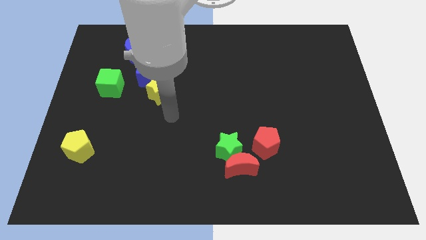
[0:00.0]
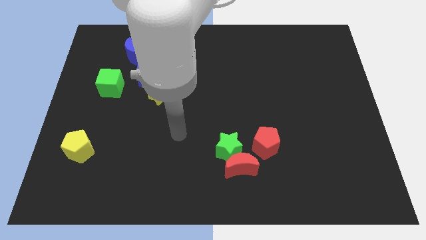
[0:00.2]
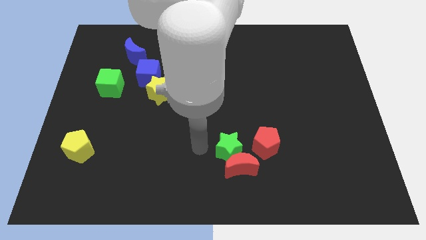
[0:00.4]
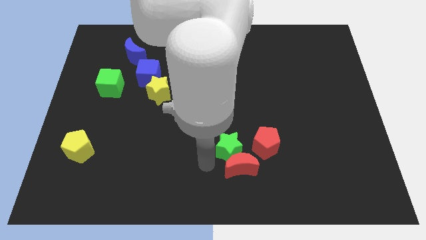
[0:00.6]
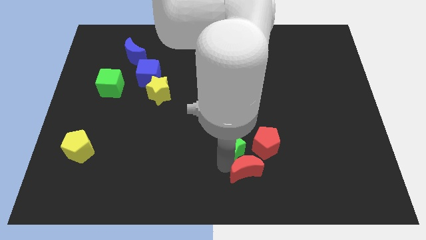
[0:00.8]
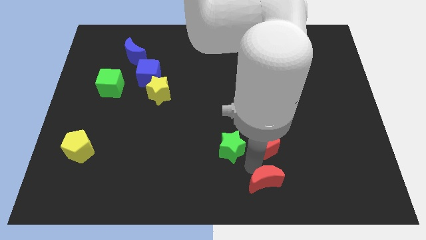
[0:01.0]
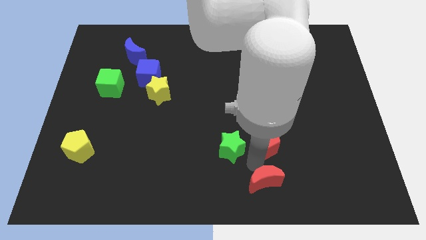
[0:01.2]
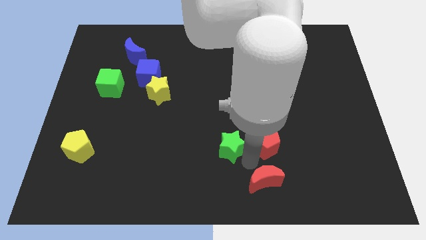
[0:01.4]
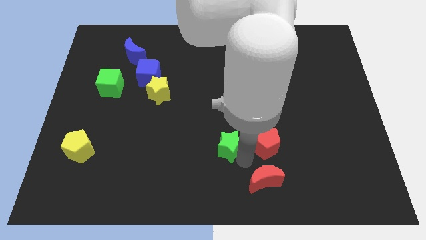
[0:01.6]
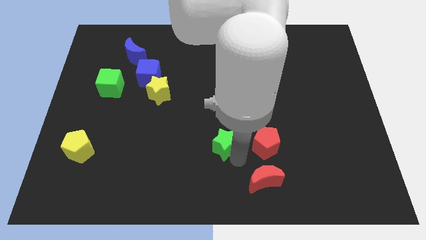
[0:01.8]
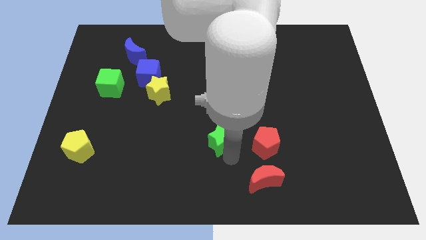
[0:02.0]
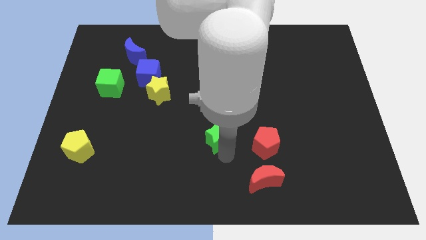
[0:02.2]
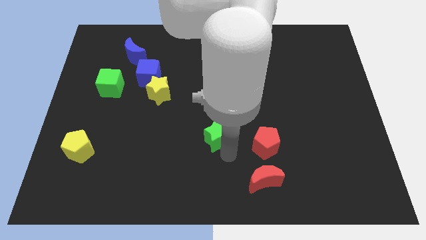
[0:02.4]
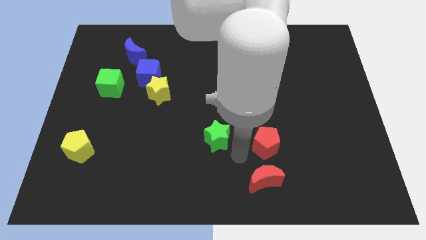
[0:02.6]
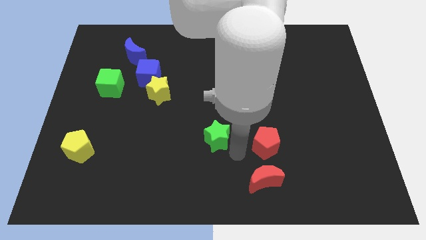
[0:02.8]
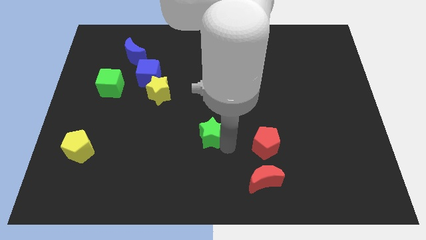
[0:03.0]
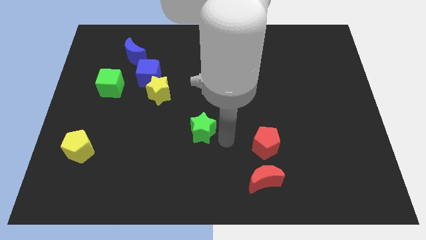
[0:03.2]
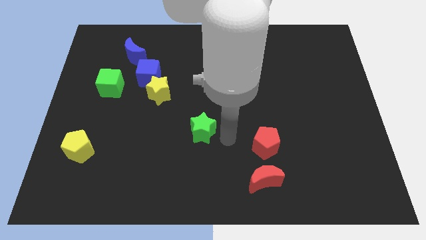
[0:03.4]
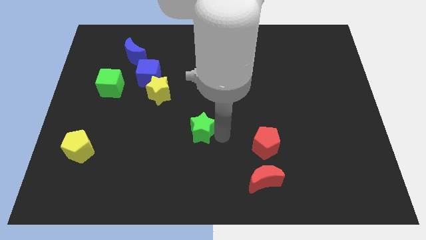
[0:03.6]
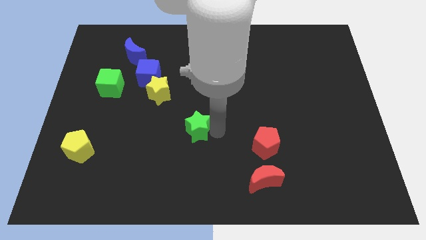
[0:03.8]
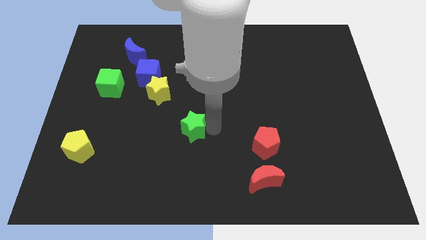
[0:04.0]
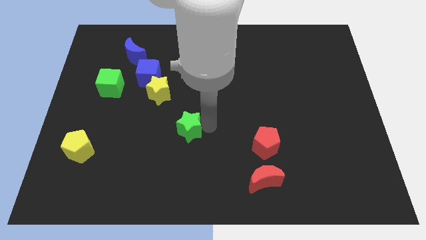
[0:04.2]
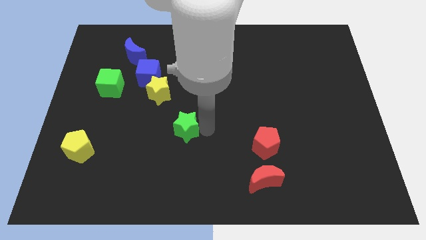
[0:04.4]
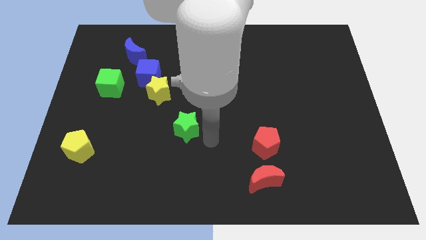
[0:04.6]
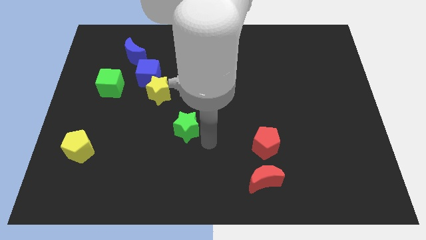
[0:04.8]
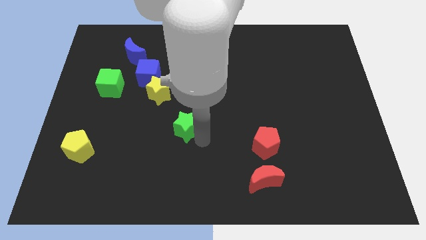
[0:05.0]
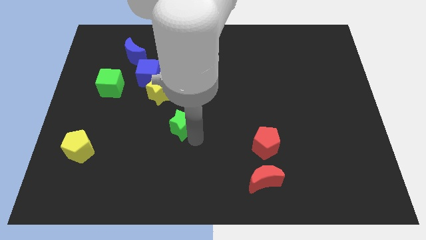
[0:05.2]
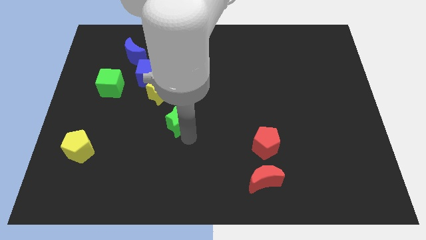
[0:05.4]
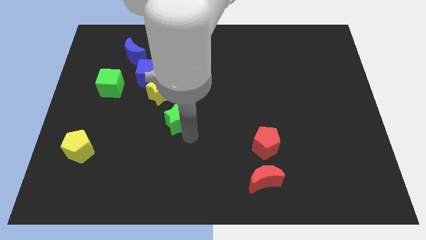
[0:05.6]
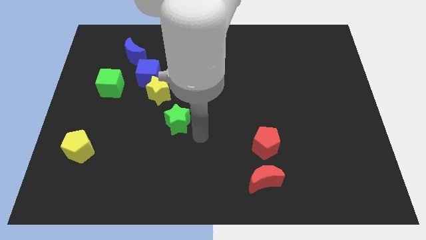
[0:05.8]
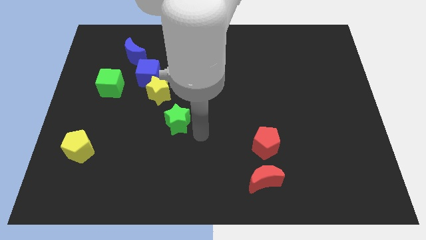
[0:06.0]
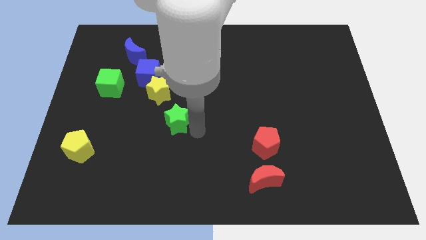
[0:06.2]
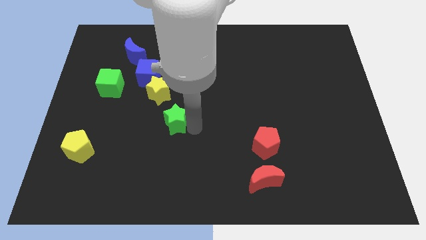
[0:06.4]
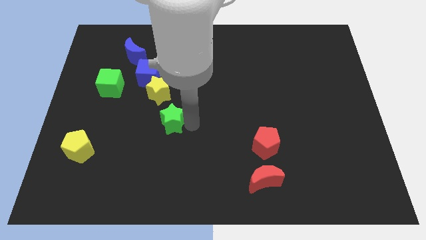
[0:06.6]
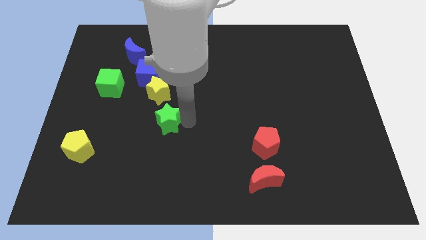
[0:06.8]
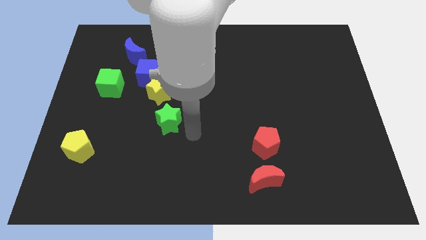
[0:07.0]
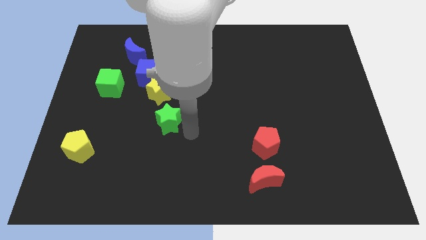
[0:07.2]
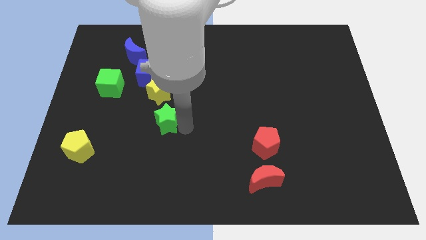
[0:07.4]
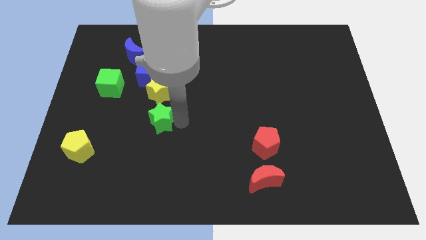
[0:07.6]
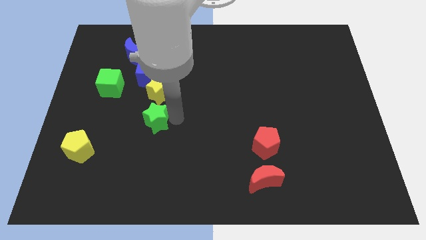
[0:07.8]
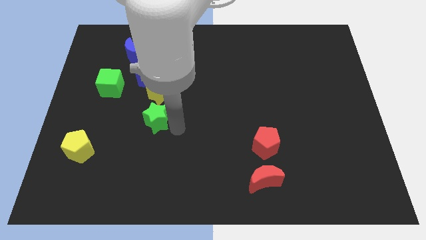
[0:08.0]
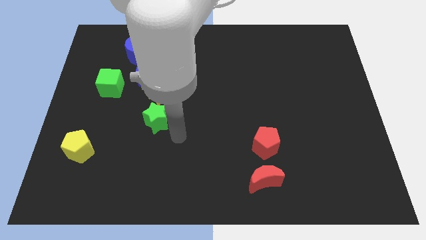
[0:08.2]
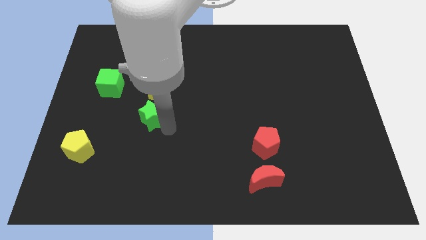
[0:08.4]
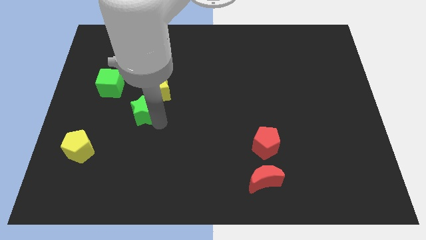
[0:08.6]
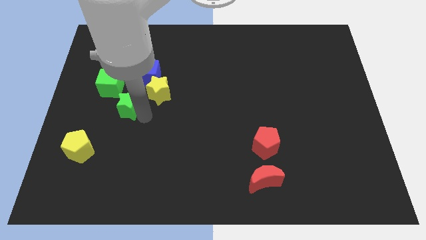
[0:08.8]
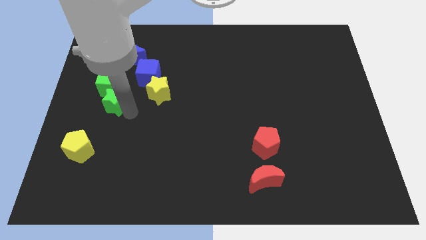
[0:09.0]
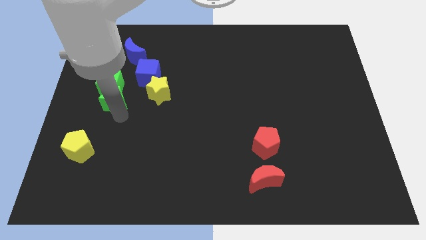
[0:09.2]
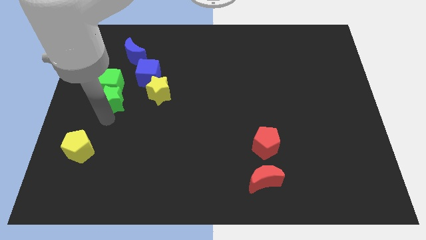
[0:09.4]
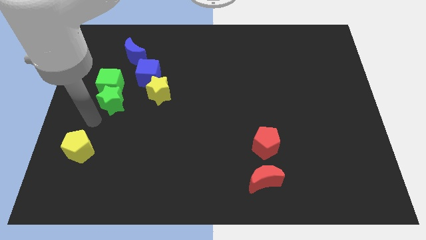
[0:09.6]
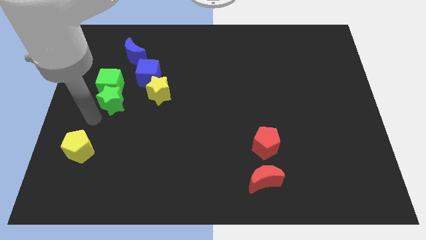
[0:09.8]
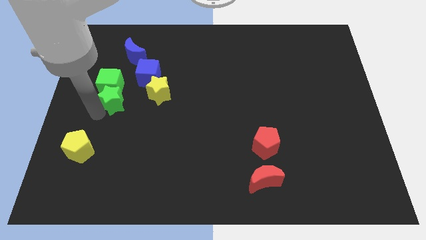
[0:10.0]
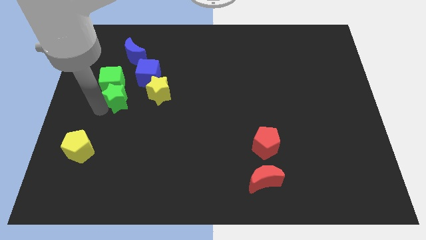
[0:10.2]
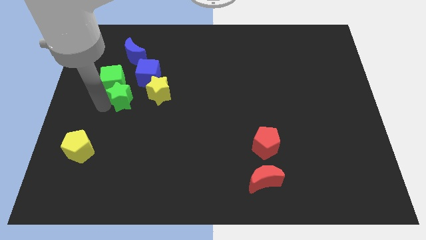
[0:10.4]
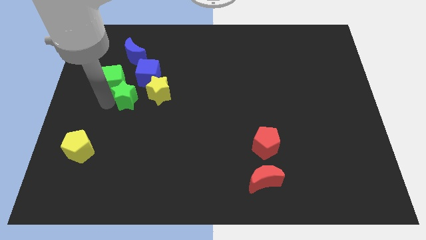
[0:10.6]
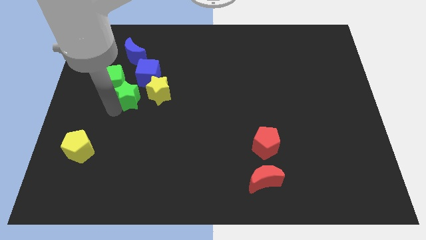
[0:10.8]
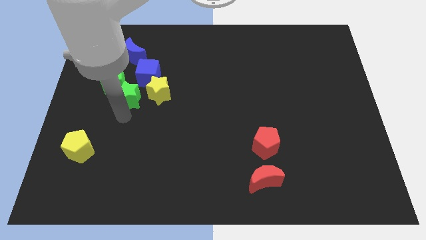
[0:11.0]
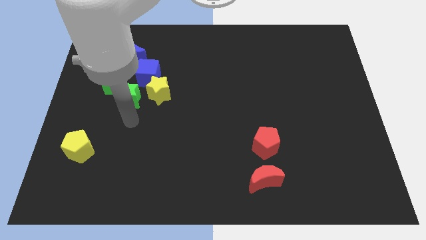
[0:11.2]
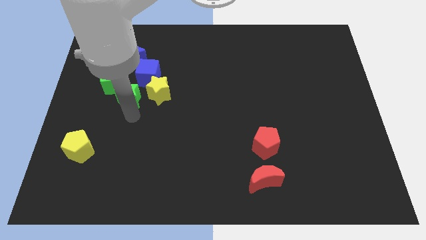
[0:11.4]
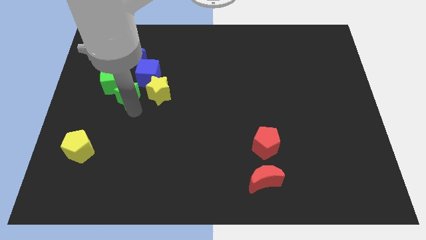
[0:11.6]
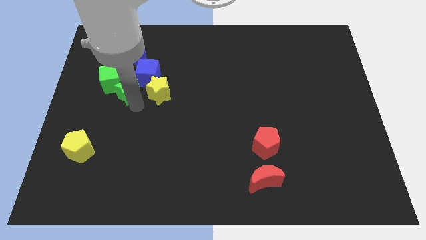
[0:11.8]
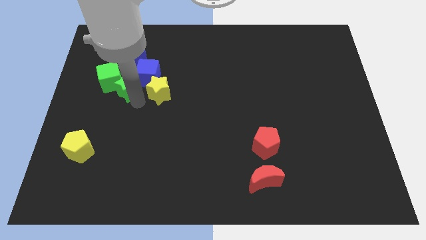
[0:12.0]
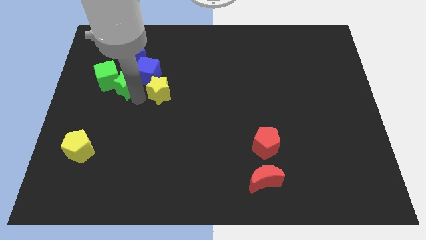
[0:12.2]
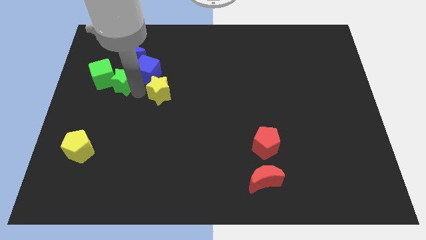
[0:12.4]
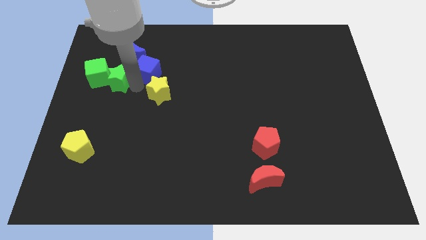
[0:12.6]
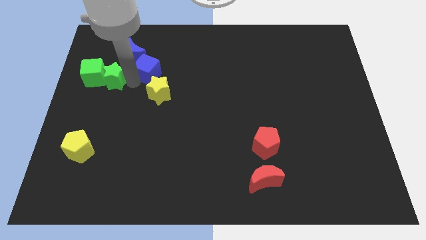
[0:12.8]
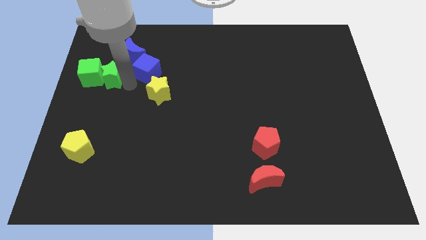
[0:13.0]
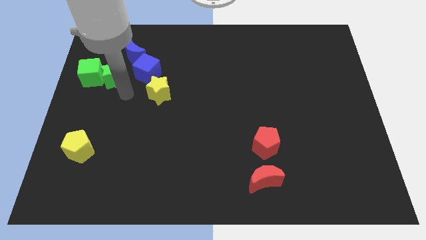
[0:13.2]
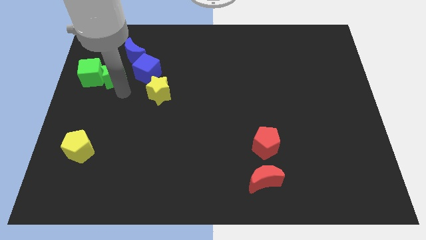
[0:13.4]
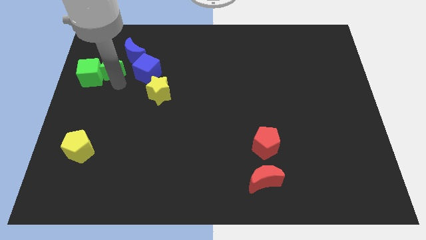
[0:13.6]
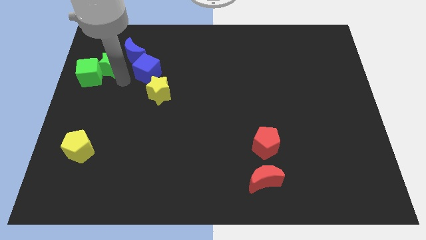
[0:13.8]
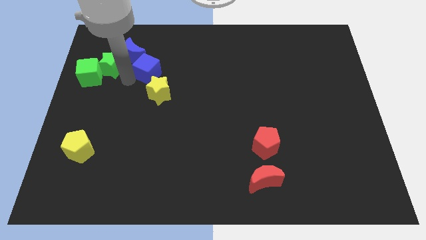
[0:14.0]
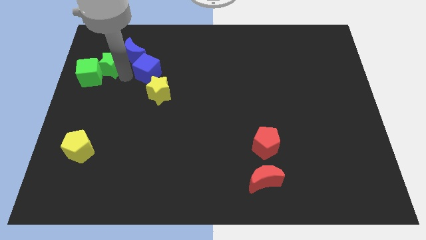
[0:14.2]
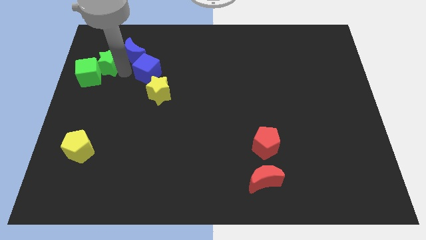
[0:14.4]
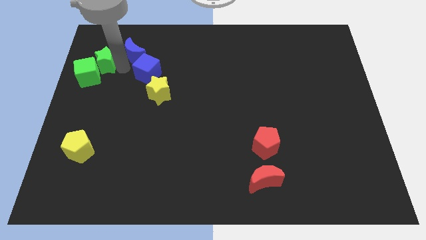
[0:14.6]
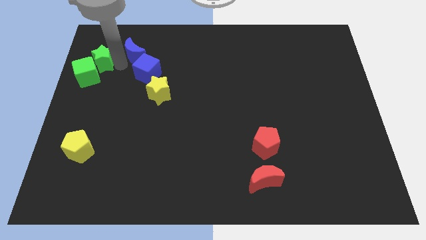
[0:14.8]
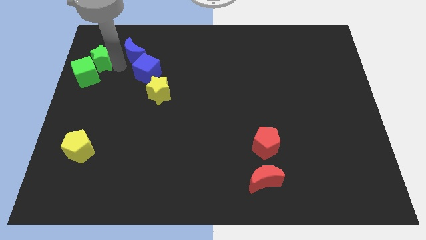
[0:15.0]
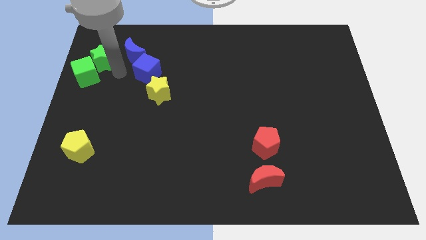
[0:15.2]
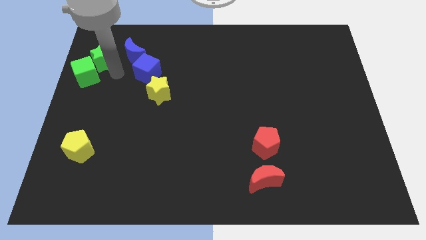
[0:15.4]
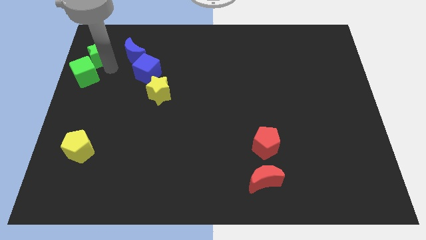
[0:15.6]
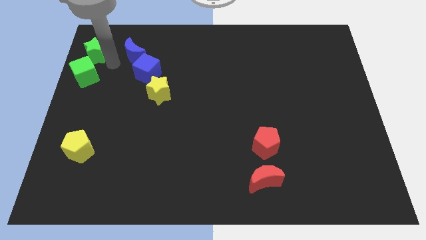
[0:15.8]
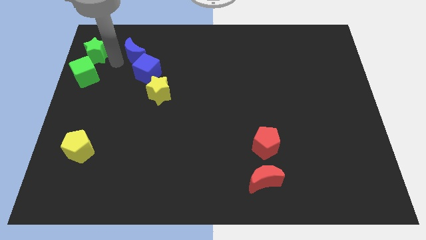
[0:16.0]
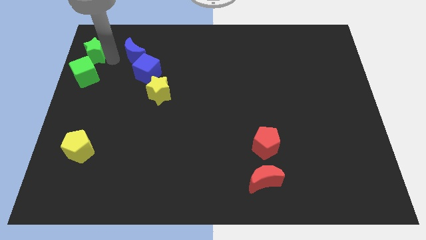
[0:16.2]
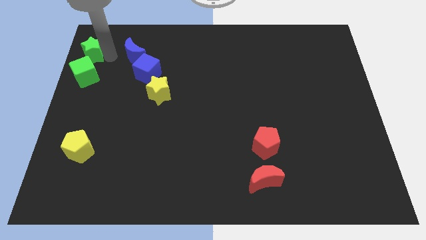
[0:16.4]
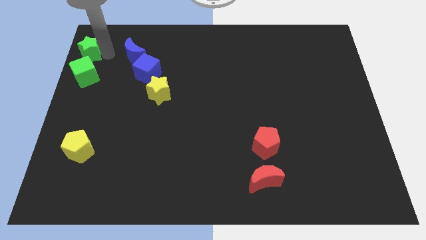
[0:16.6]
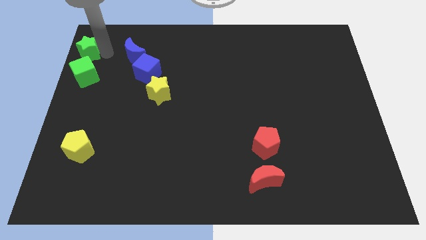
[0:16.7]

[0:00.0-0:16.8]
slide the green star to the top left of the board
